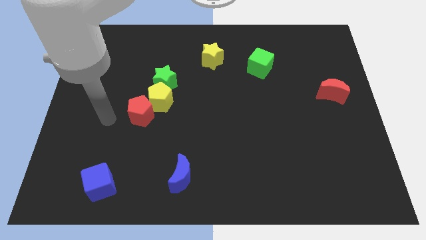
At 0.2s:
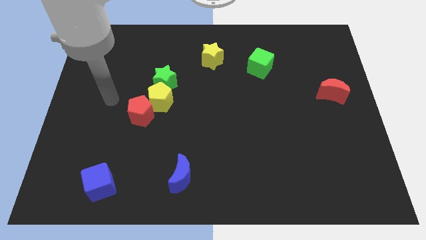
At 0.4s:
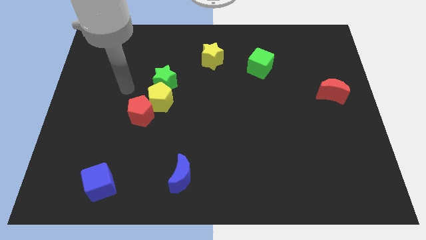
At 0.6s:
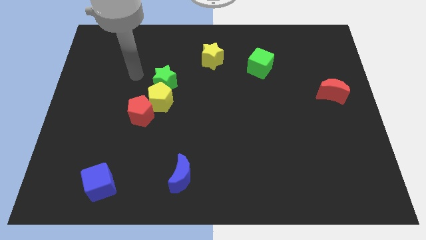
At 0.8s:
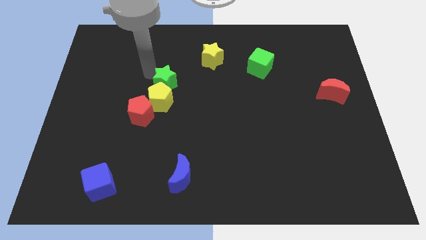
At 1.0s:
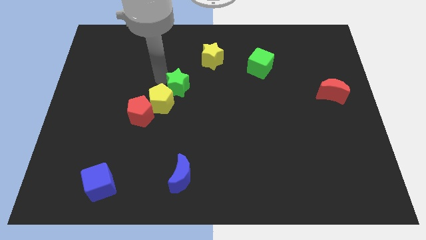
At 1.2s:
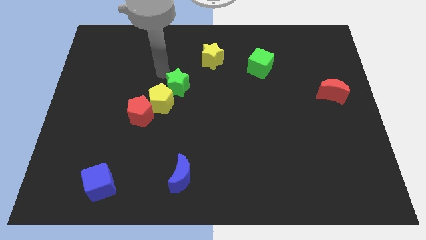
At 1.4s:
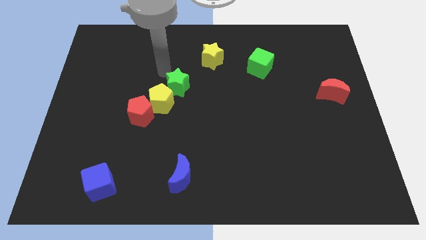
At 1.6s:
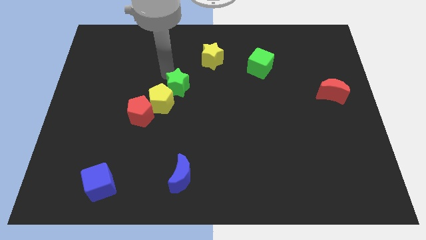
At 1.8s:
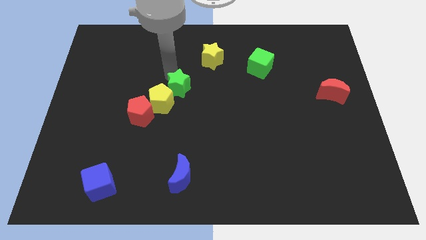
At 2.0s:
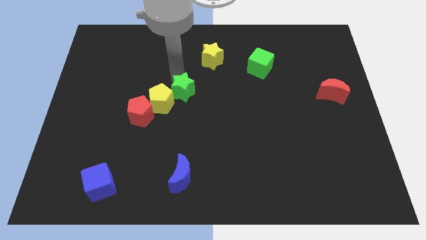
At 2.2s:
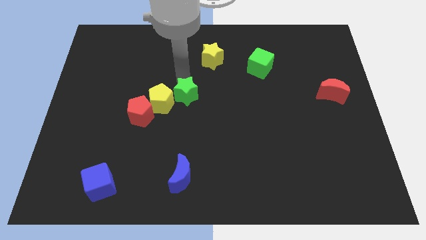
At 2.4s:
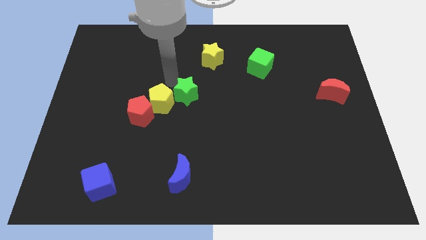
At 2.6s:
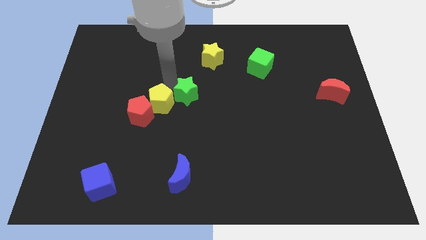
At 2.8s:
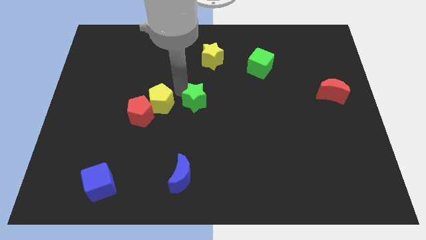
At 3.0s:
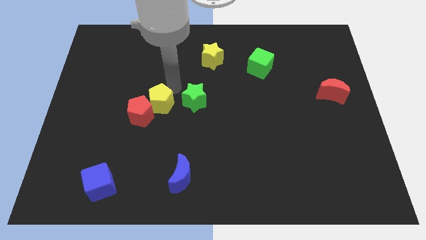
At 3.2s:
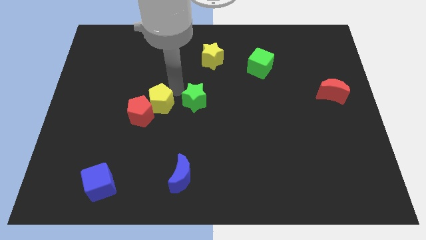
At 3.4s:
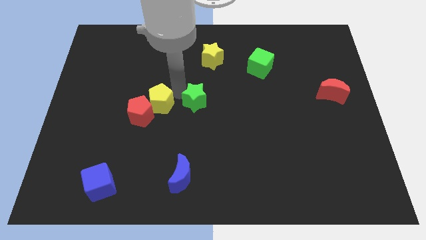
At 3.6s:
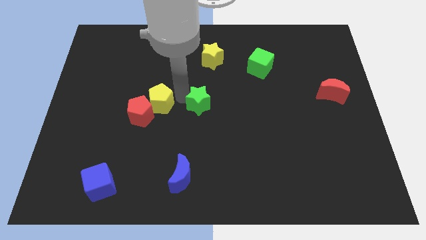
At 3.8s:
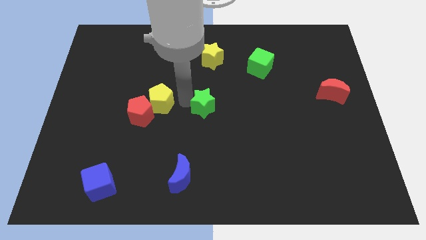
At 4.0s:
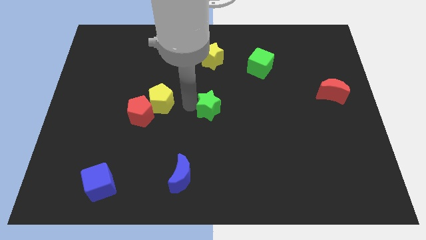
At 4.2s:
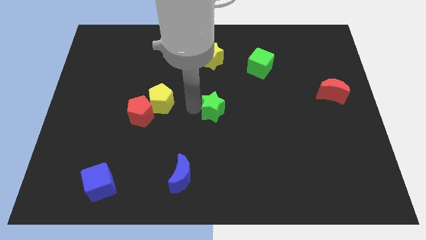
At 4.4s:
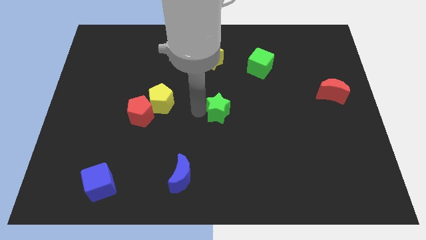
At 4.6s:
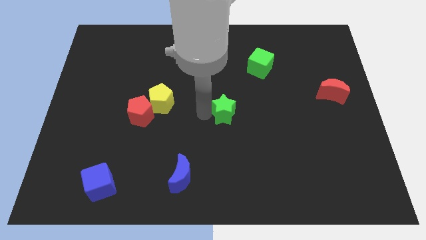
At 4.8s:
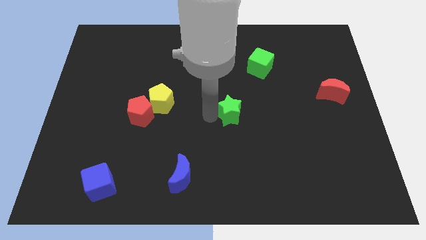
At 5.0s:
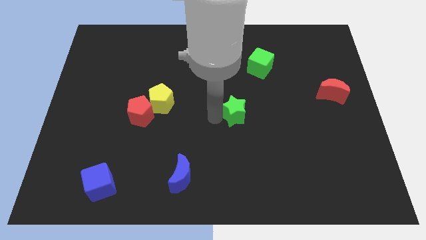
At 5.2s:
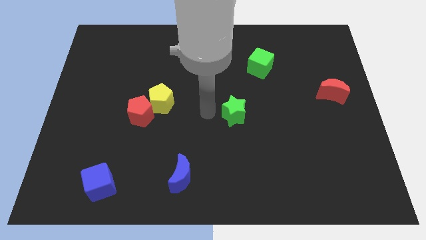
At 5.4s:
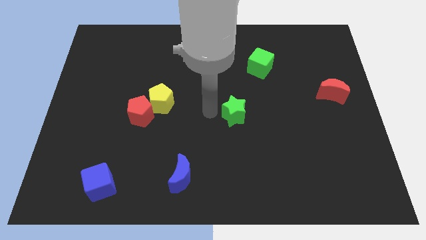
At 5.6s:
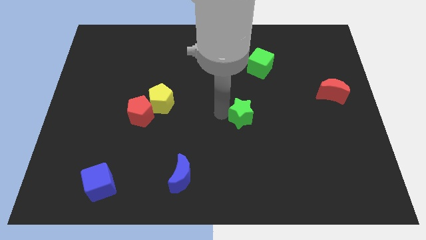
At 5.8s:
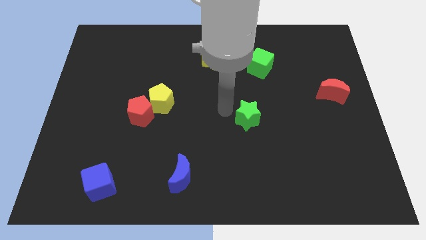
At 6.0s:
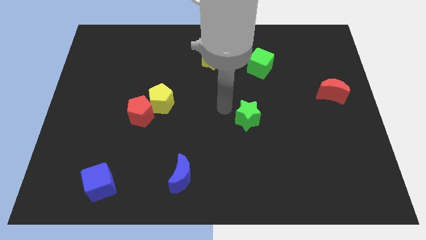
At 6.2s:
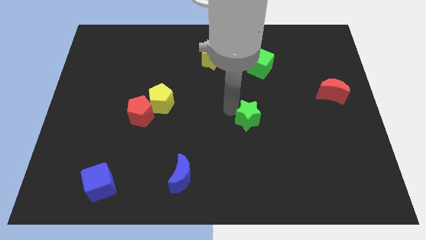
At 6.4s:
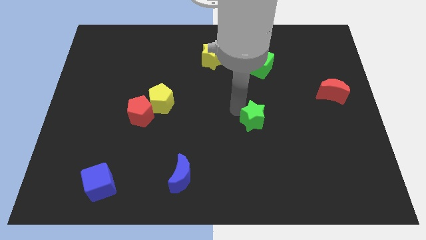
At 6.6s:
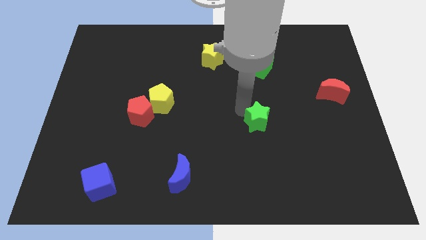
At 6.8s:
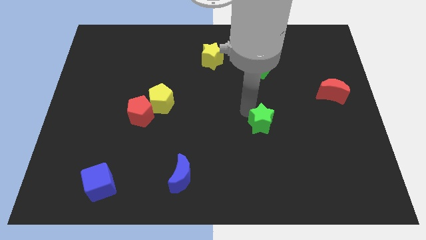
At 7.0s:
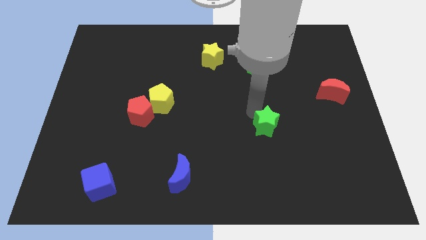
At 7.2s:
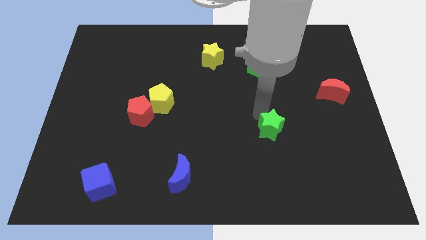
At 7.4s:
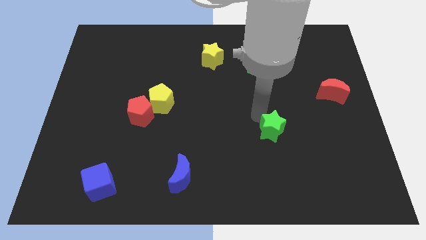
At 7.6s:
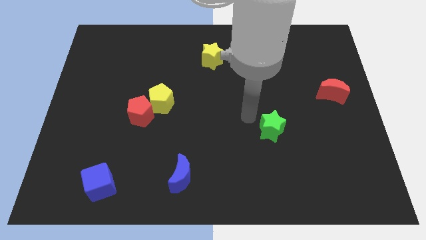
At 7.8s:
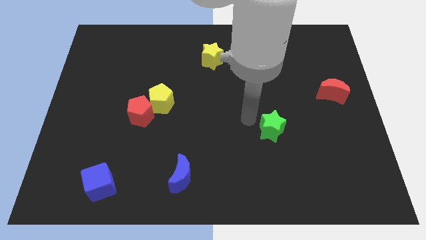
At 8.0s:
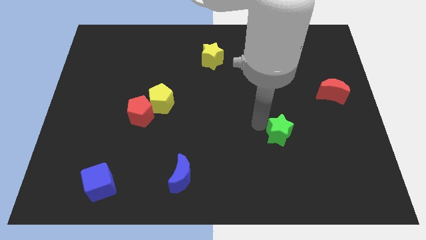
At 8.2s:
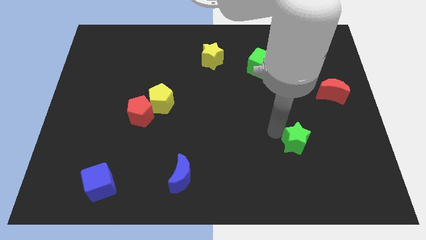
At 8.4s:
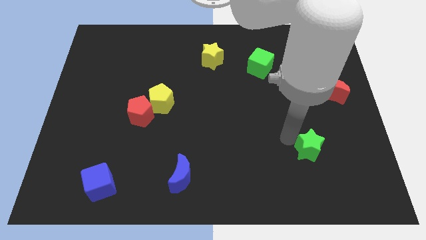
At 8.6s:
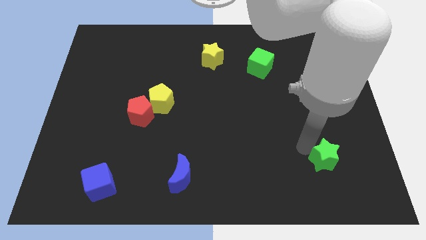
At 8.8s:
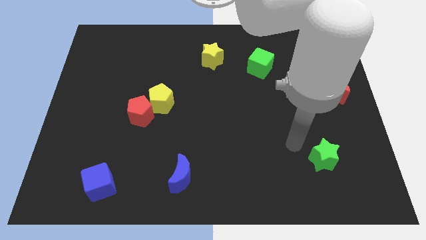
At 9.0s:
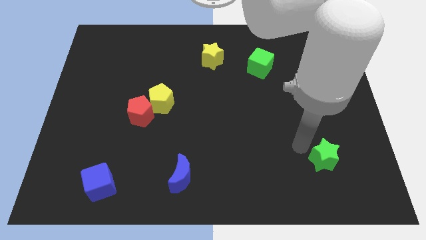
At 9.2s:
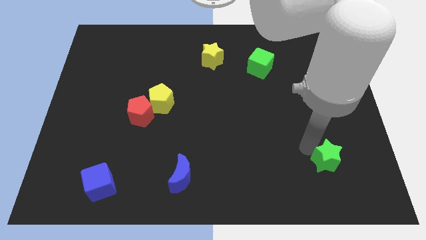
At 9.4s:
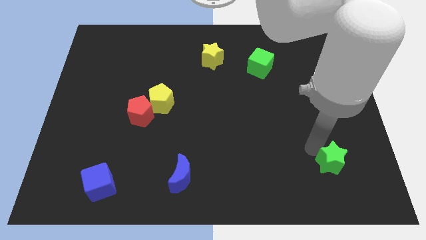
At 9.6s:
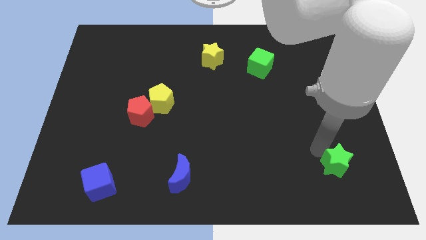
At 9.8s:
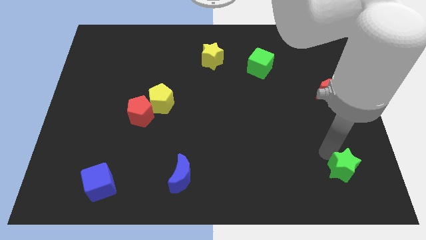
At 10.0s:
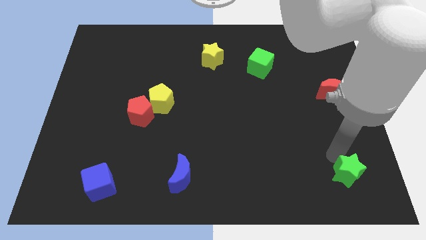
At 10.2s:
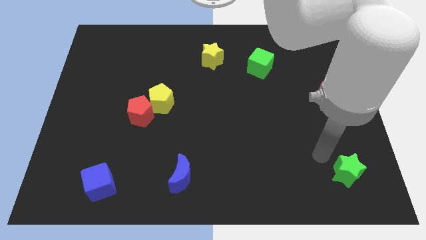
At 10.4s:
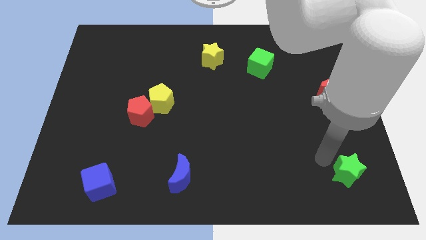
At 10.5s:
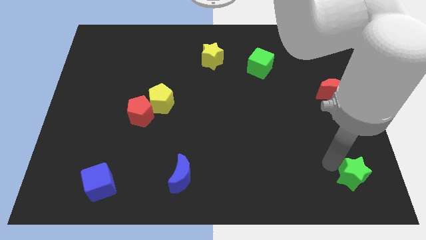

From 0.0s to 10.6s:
slide the green star to the bottom right corner

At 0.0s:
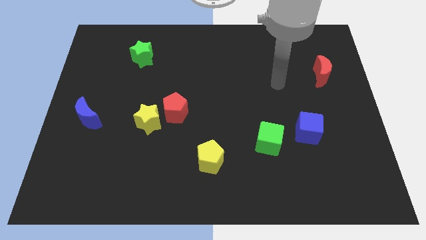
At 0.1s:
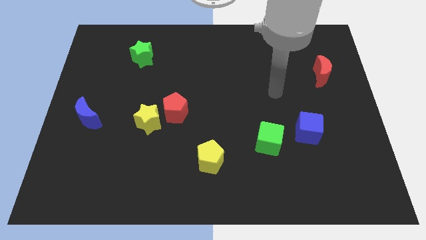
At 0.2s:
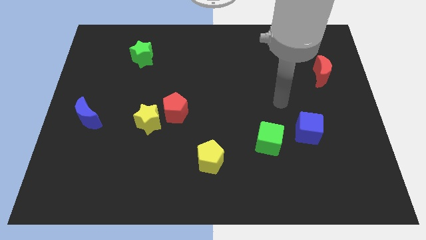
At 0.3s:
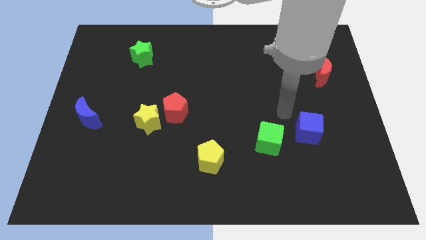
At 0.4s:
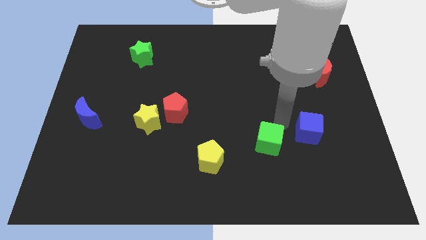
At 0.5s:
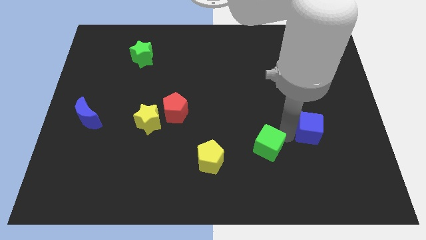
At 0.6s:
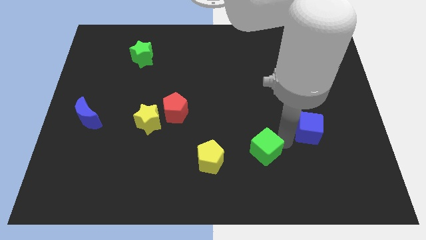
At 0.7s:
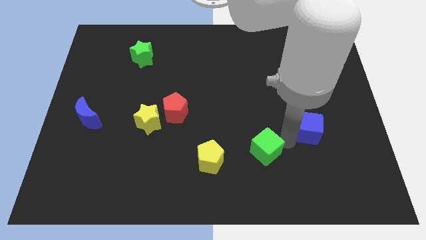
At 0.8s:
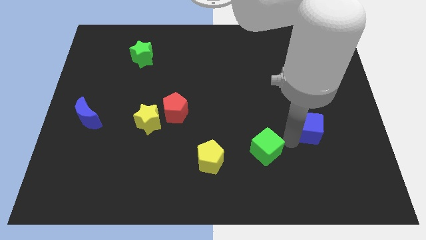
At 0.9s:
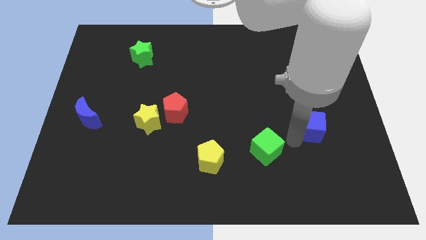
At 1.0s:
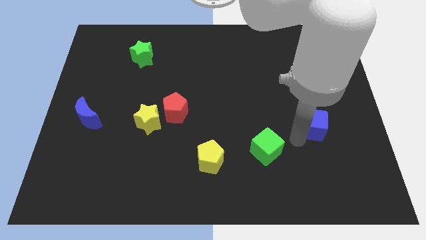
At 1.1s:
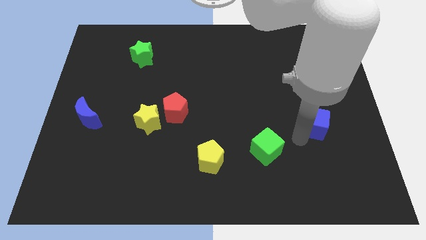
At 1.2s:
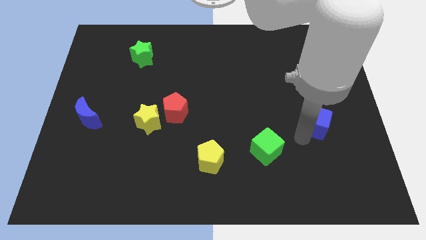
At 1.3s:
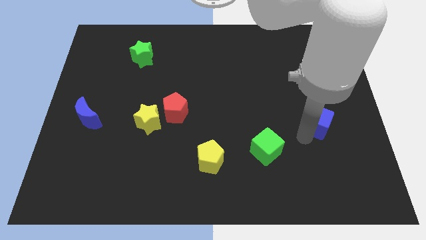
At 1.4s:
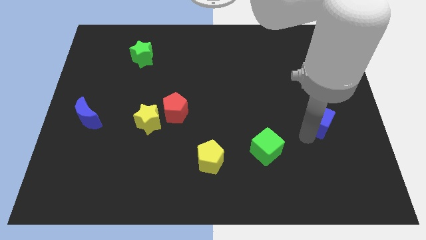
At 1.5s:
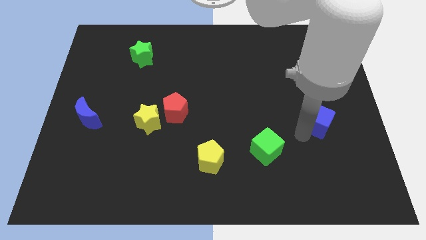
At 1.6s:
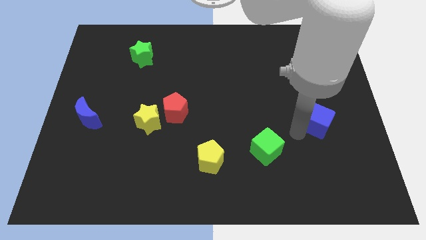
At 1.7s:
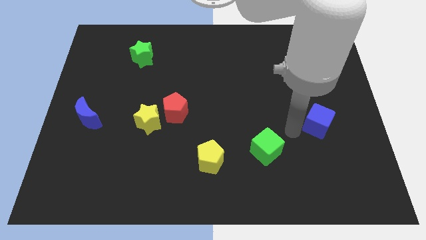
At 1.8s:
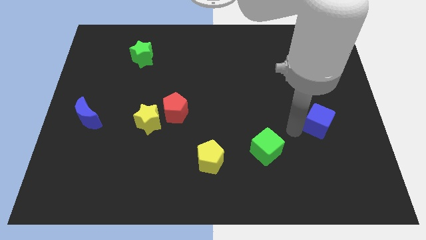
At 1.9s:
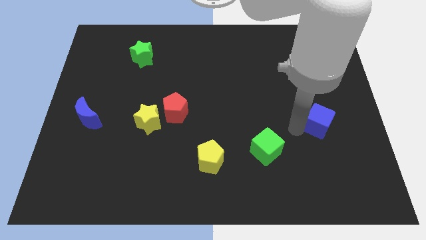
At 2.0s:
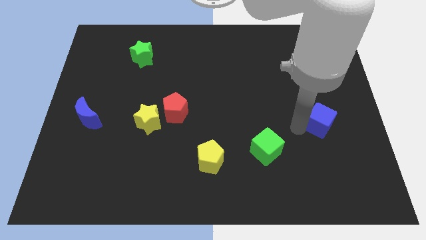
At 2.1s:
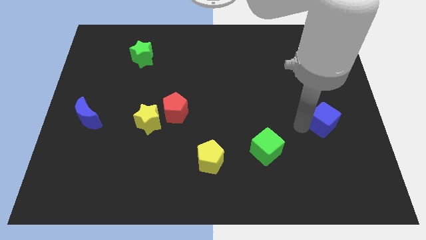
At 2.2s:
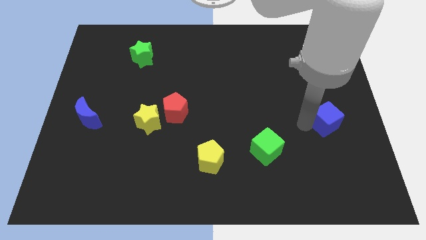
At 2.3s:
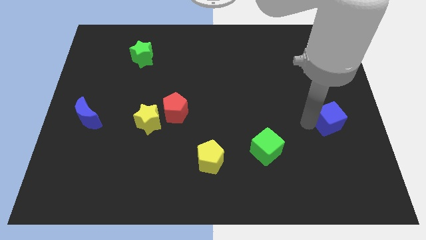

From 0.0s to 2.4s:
put the blue cube to the right side of the board
